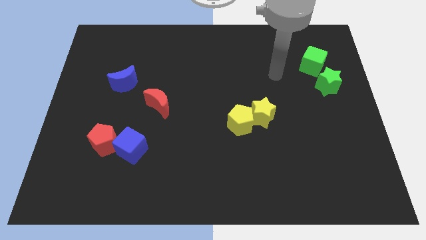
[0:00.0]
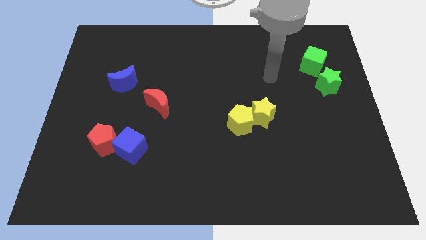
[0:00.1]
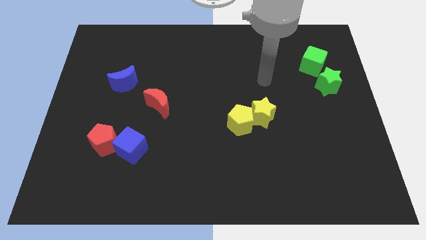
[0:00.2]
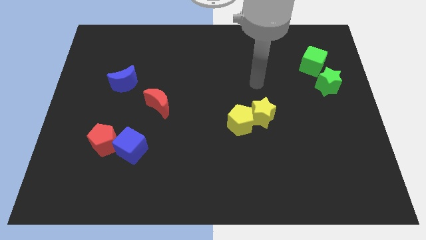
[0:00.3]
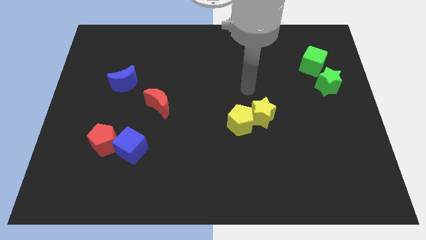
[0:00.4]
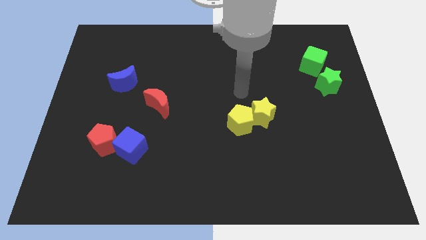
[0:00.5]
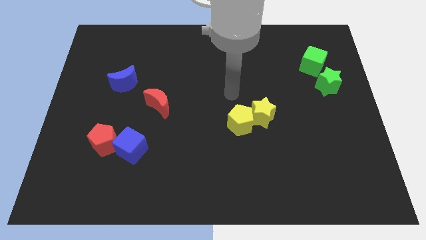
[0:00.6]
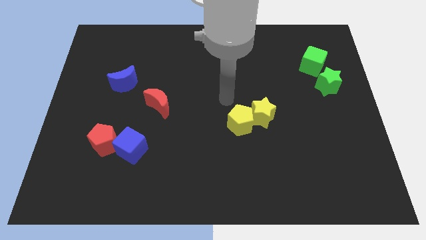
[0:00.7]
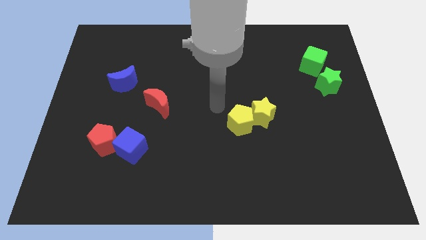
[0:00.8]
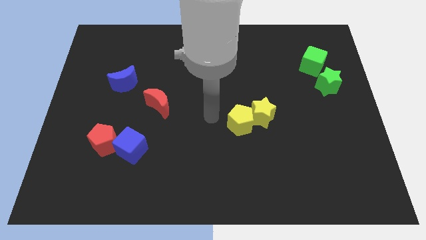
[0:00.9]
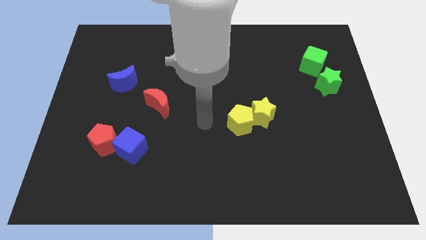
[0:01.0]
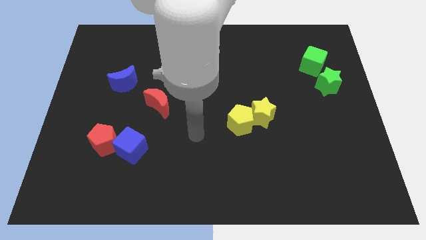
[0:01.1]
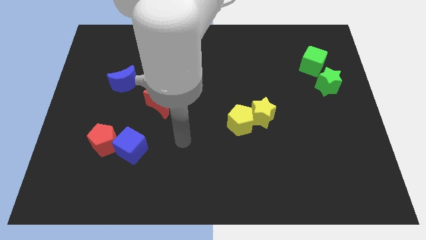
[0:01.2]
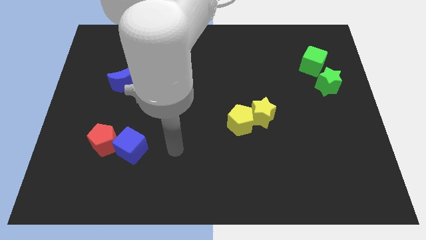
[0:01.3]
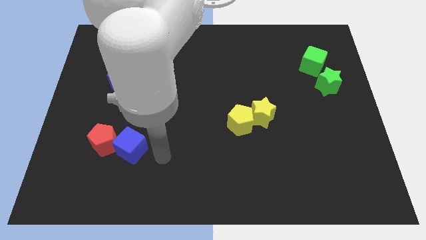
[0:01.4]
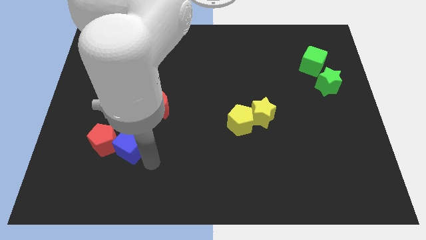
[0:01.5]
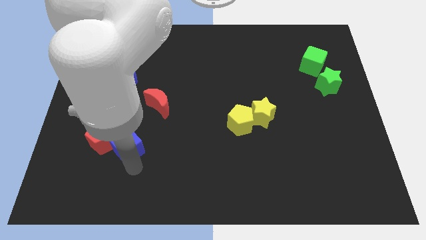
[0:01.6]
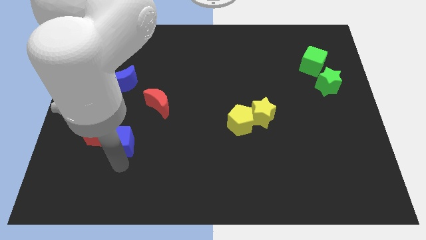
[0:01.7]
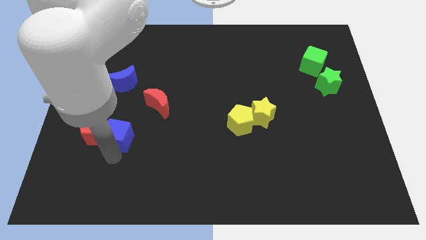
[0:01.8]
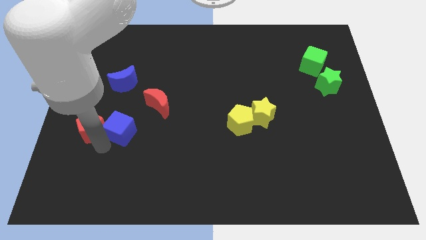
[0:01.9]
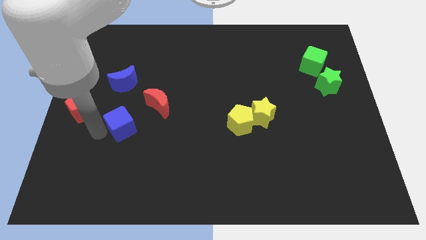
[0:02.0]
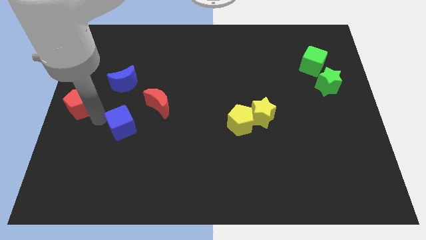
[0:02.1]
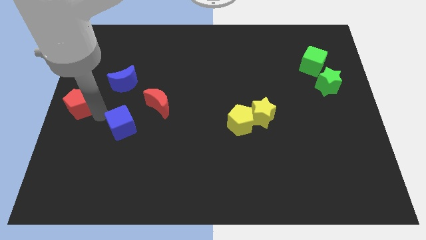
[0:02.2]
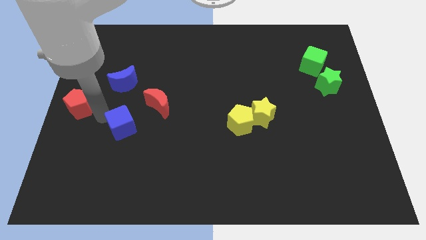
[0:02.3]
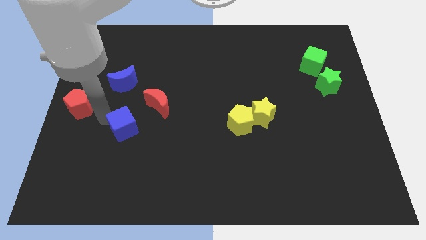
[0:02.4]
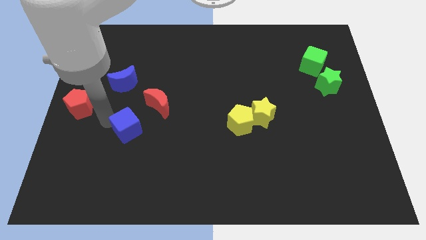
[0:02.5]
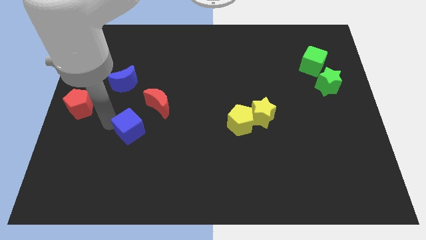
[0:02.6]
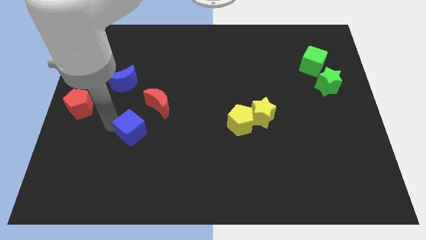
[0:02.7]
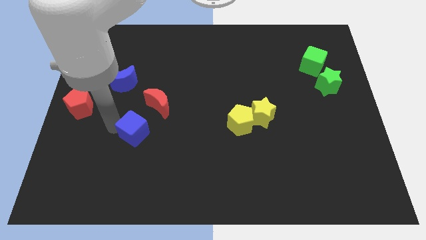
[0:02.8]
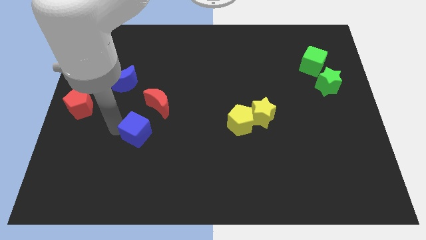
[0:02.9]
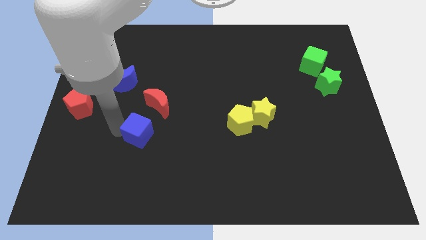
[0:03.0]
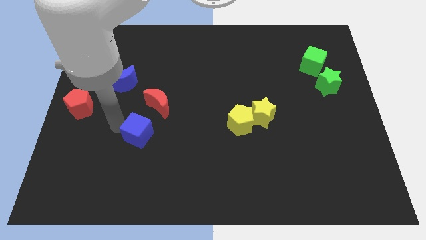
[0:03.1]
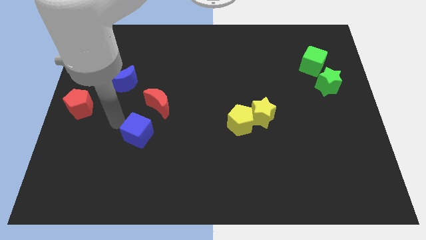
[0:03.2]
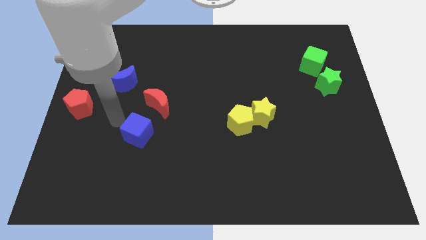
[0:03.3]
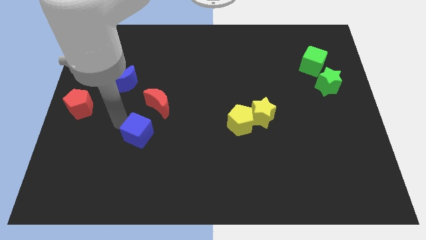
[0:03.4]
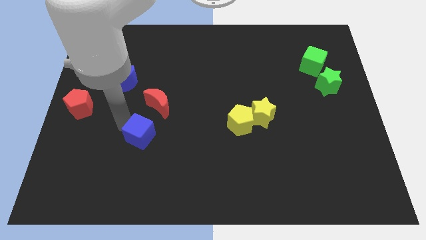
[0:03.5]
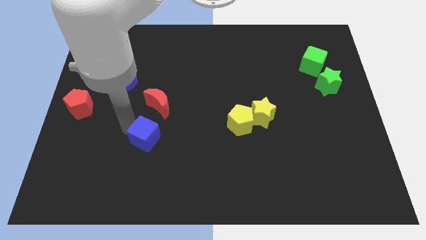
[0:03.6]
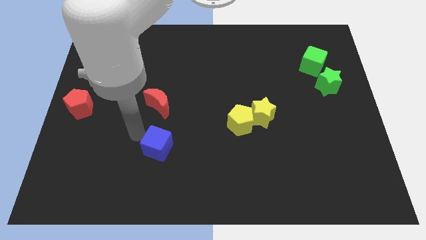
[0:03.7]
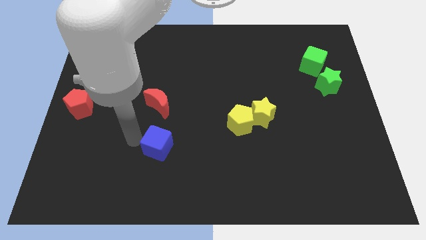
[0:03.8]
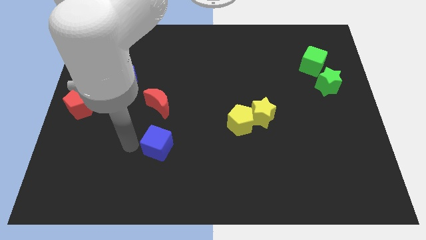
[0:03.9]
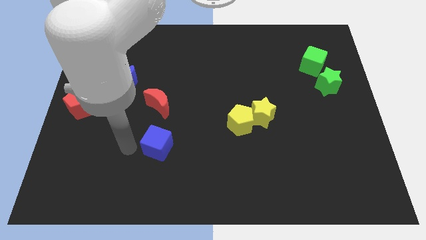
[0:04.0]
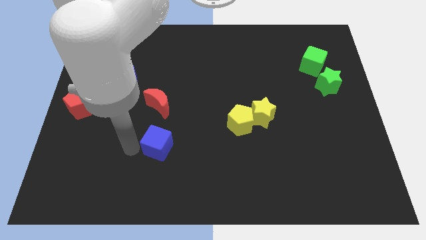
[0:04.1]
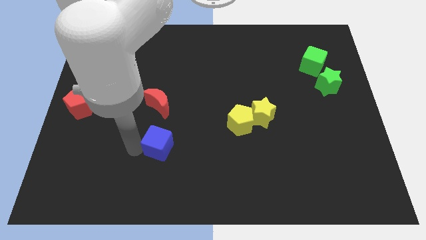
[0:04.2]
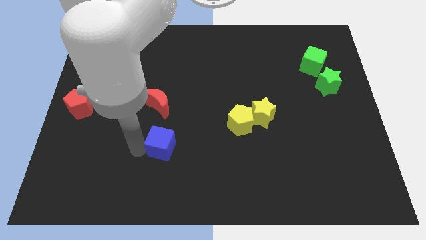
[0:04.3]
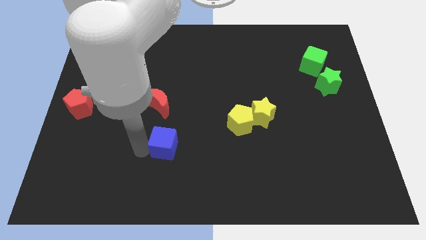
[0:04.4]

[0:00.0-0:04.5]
slightly push the blue cube right

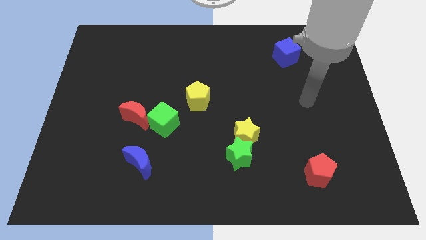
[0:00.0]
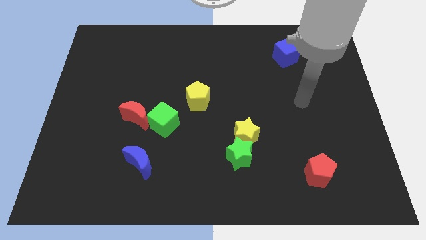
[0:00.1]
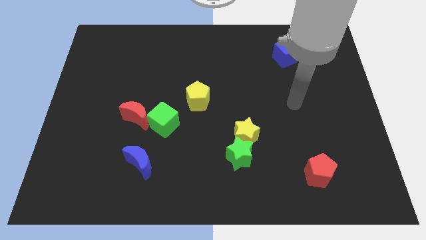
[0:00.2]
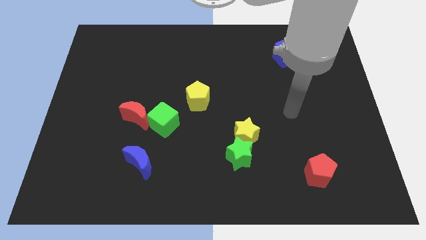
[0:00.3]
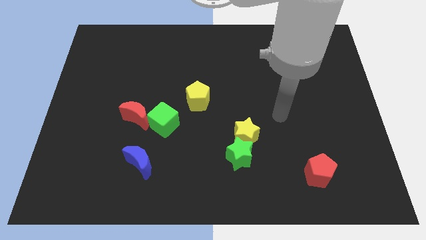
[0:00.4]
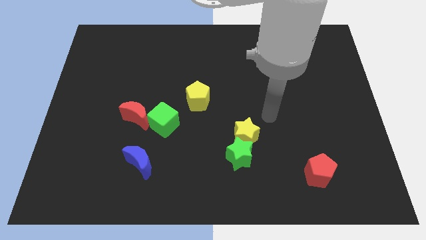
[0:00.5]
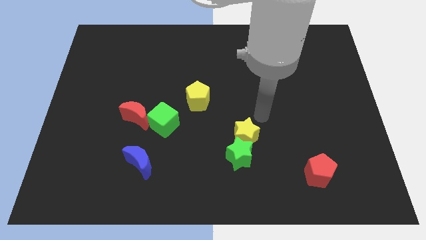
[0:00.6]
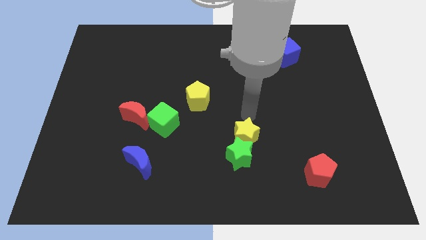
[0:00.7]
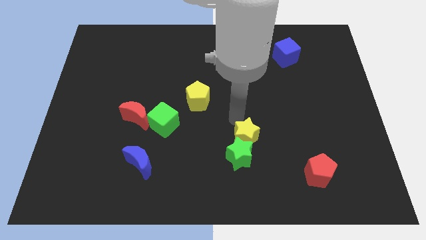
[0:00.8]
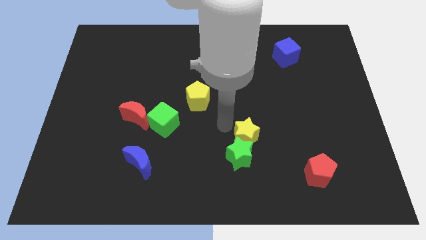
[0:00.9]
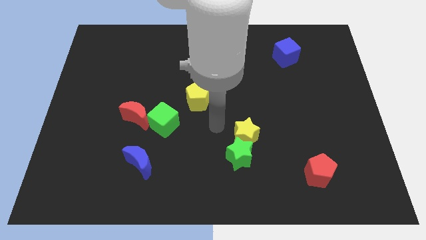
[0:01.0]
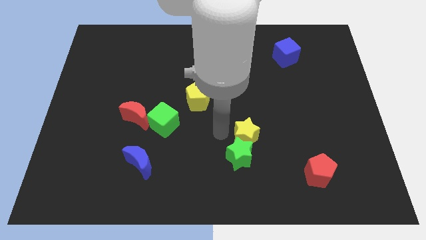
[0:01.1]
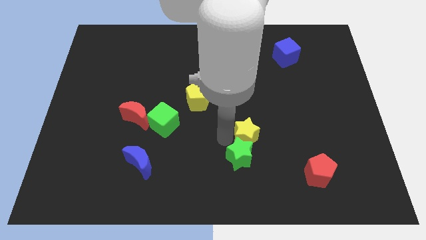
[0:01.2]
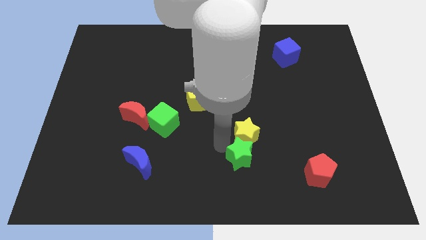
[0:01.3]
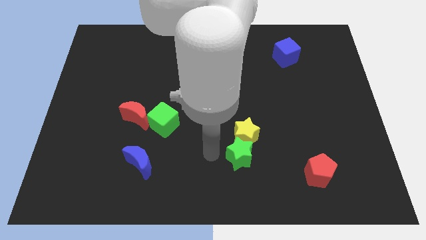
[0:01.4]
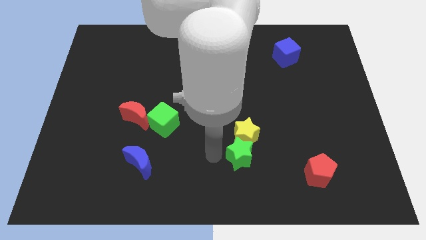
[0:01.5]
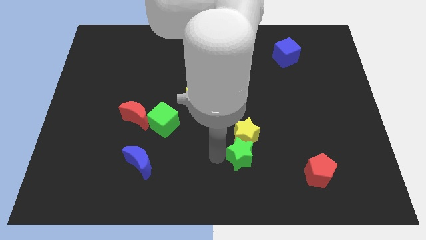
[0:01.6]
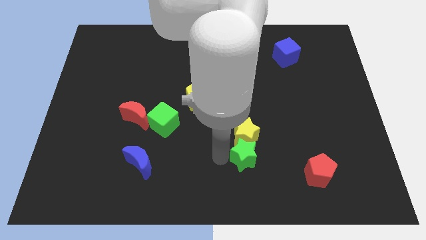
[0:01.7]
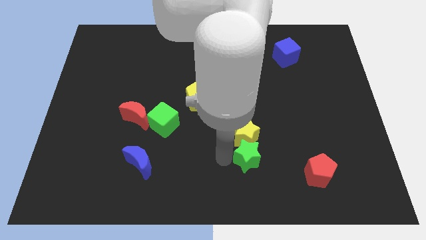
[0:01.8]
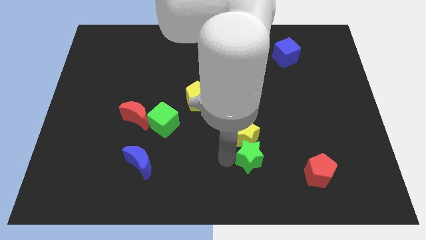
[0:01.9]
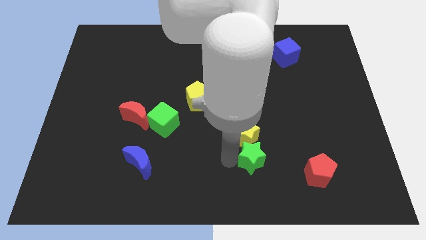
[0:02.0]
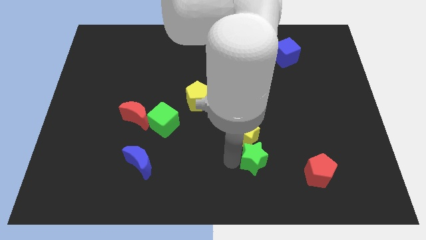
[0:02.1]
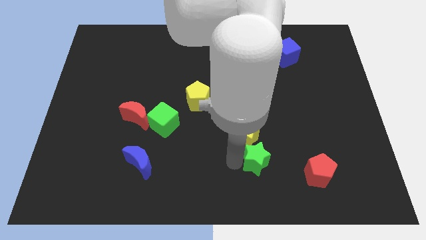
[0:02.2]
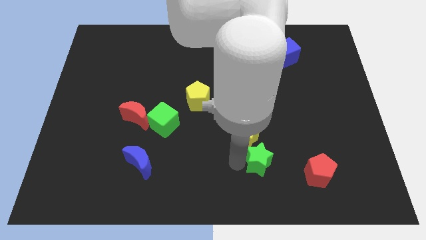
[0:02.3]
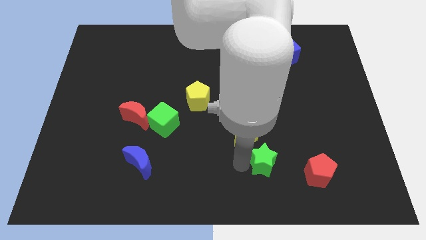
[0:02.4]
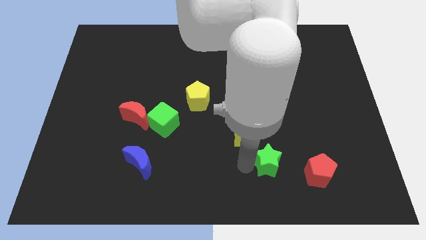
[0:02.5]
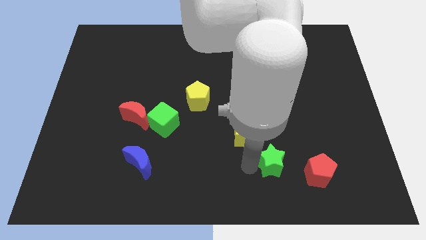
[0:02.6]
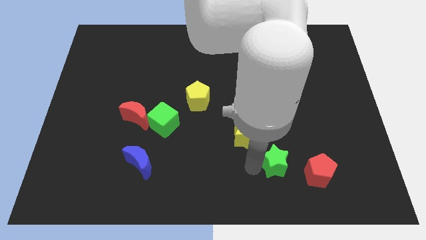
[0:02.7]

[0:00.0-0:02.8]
push the green star a little to the right

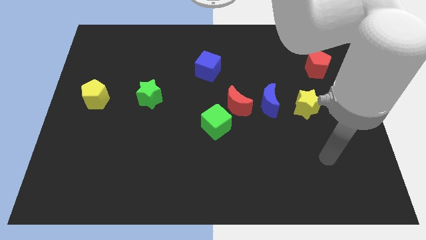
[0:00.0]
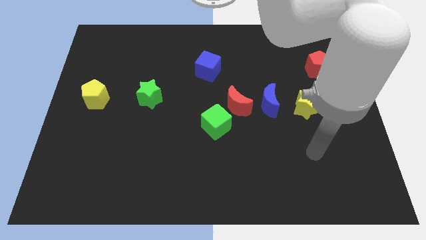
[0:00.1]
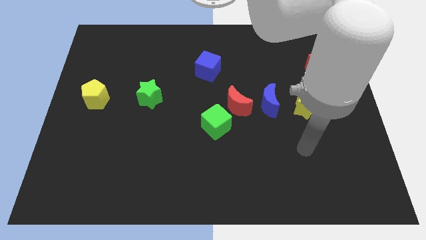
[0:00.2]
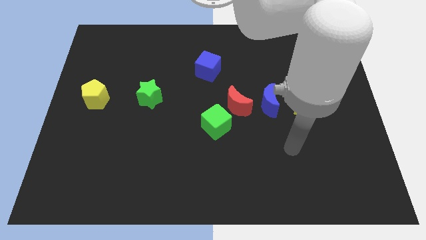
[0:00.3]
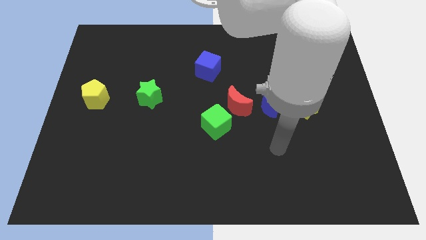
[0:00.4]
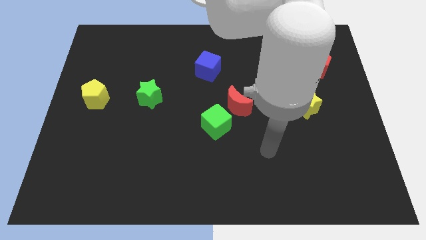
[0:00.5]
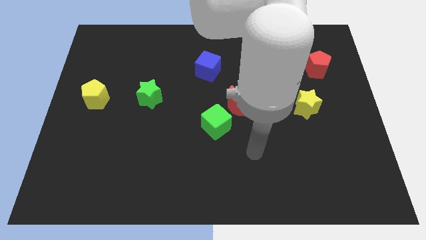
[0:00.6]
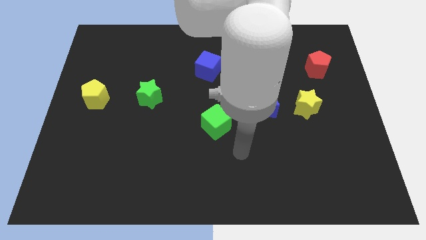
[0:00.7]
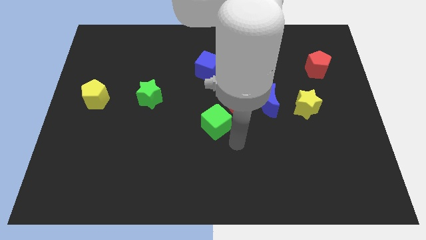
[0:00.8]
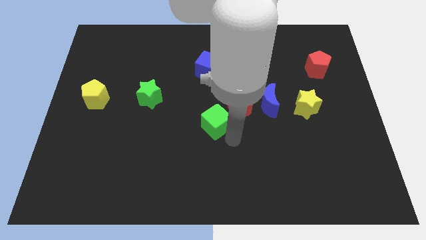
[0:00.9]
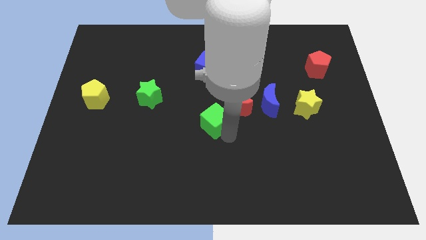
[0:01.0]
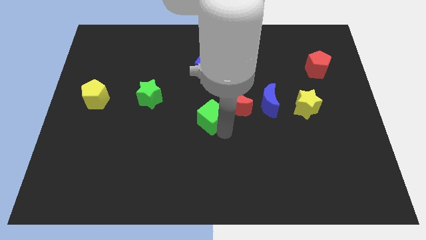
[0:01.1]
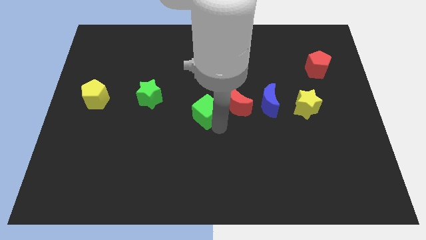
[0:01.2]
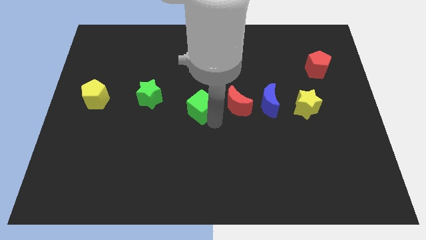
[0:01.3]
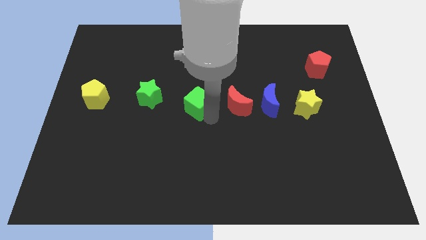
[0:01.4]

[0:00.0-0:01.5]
move the green cube upwards and then left a little bit
